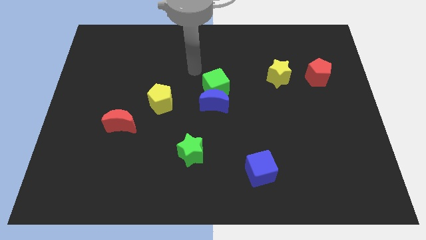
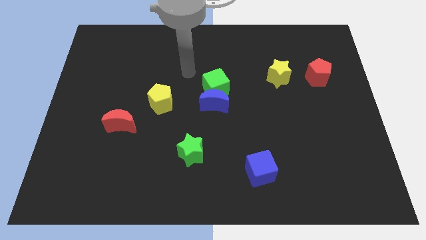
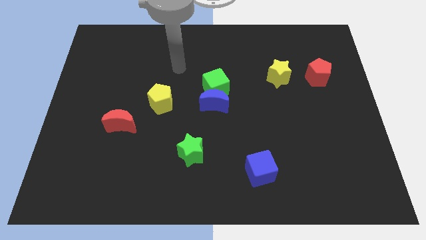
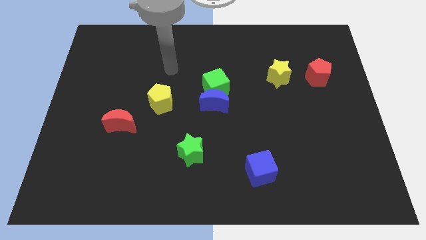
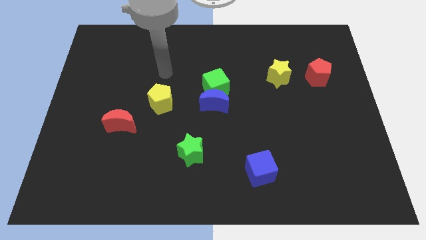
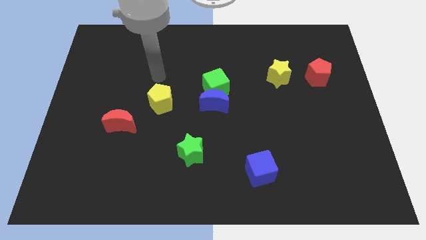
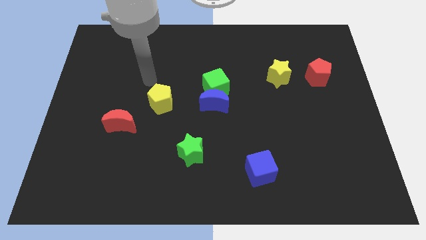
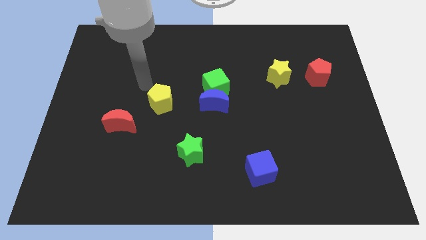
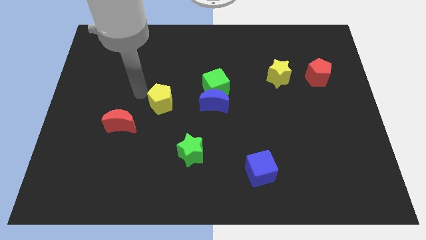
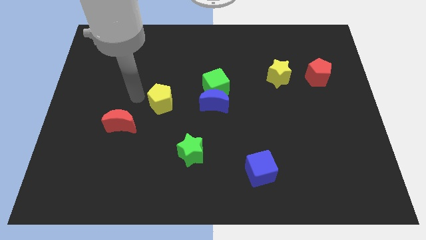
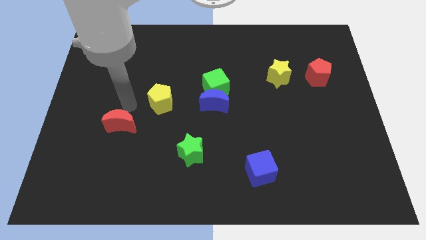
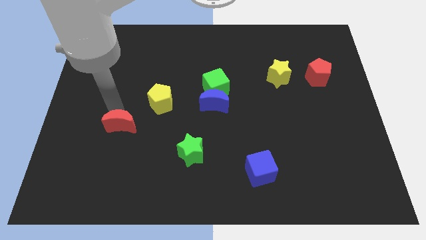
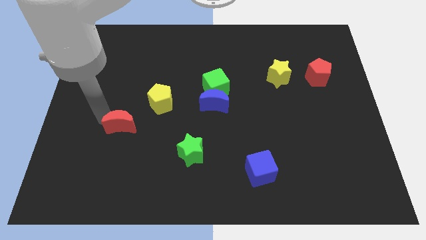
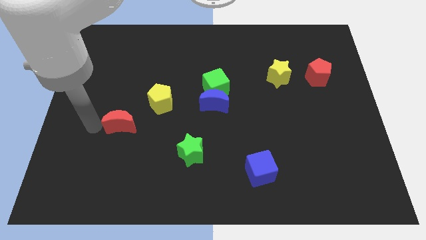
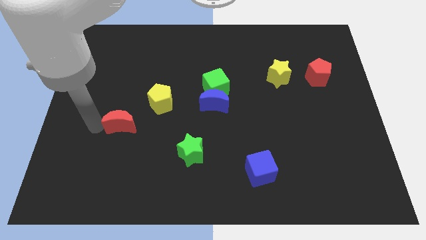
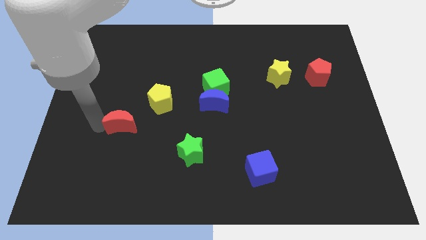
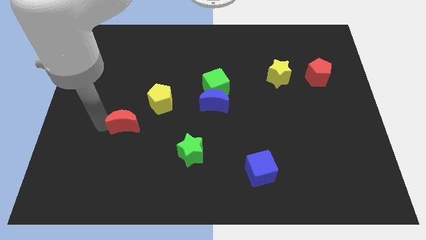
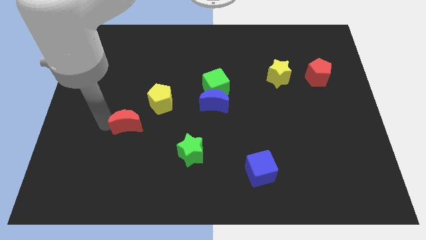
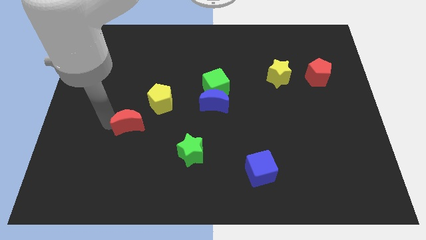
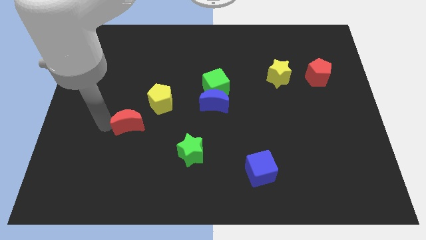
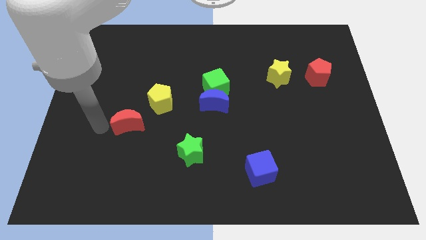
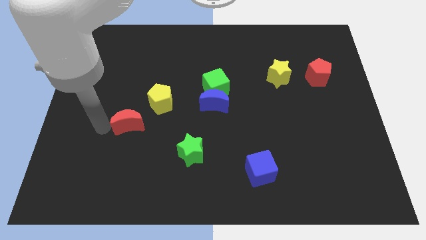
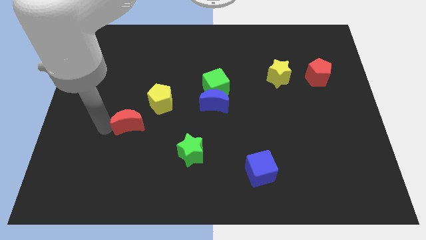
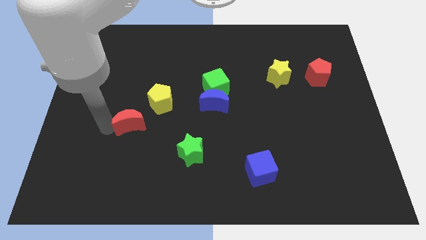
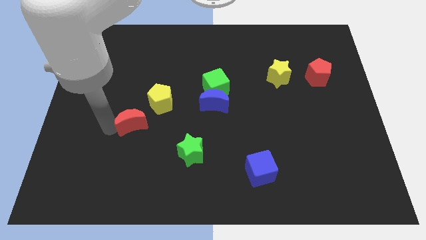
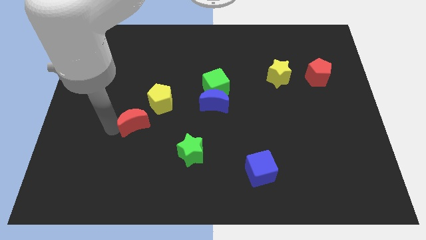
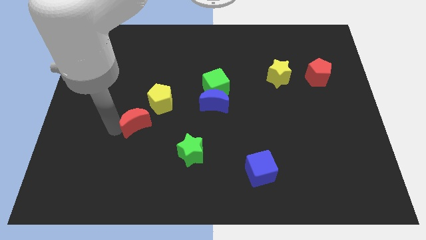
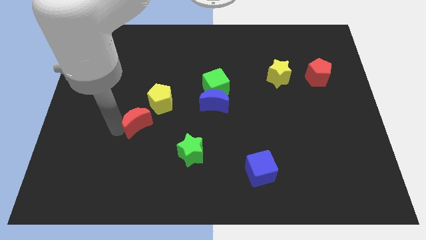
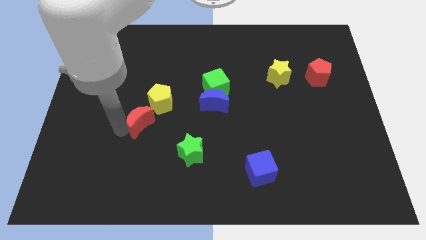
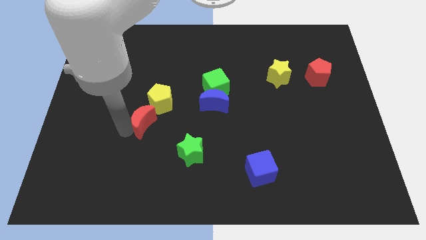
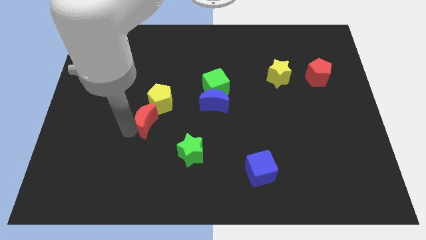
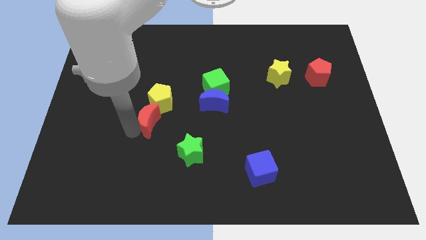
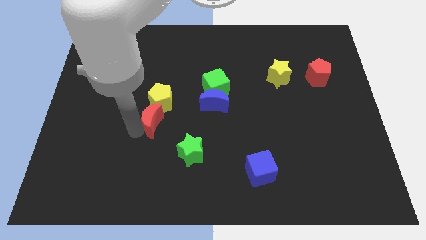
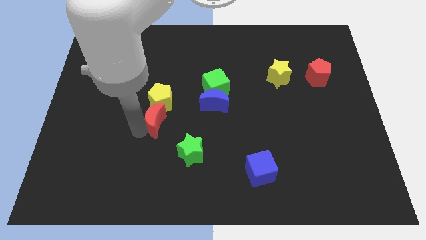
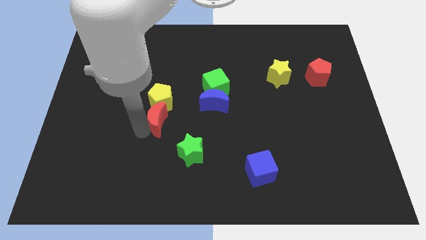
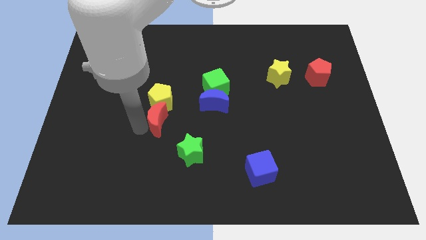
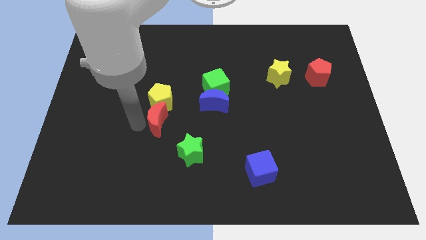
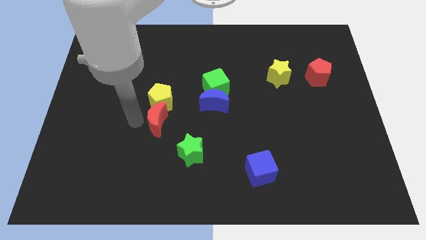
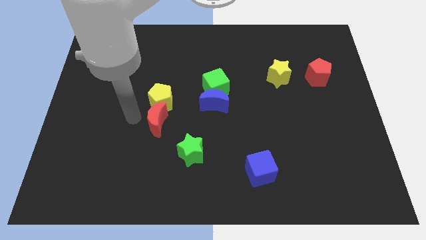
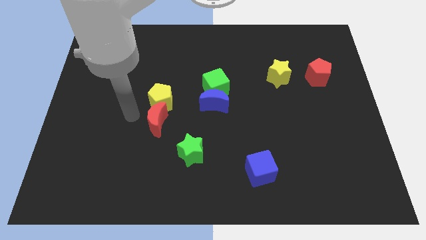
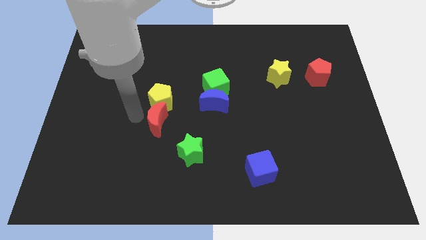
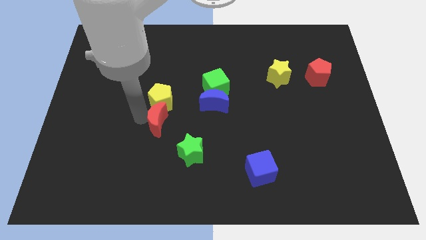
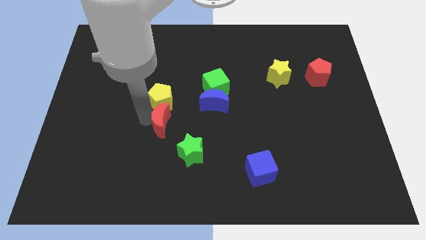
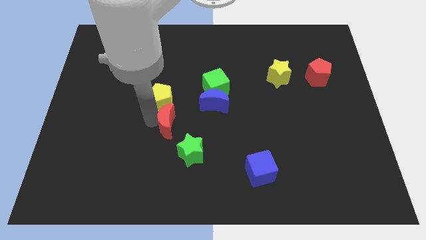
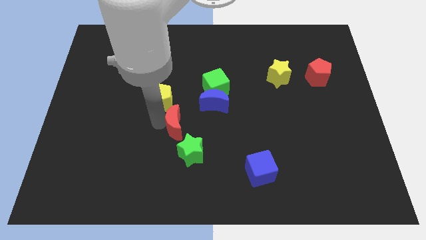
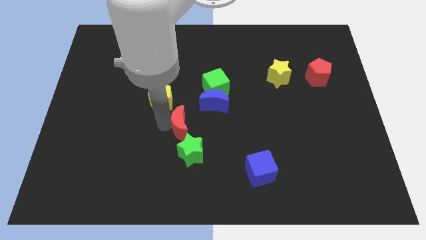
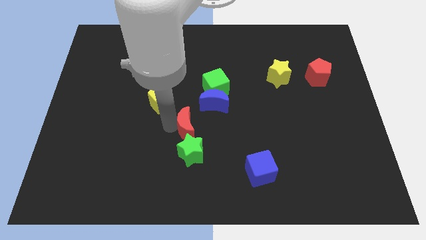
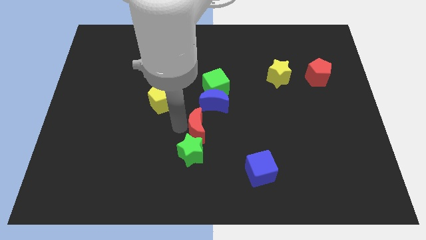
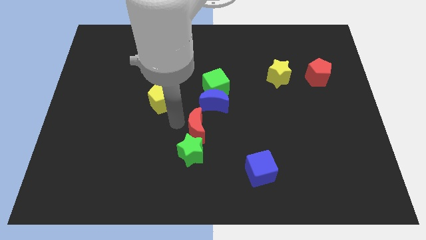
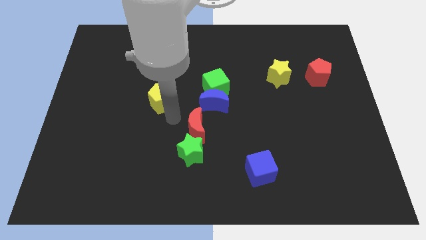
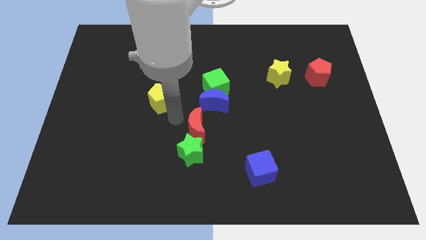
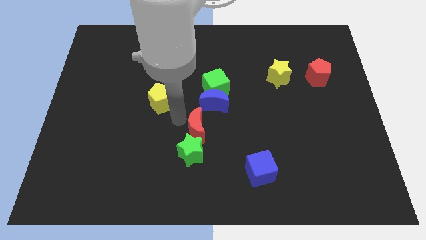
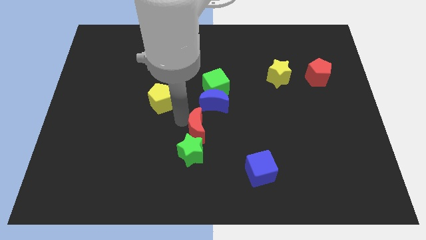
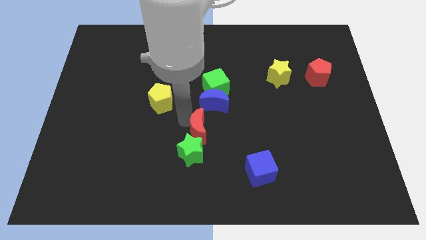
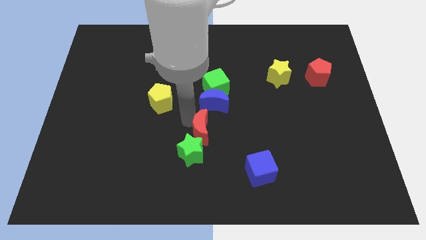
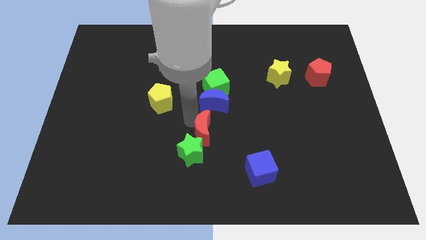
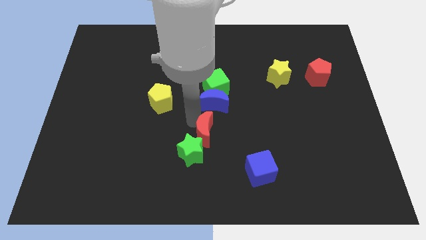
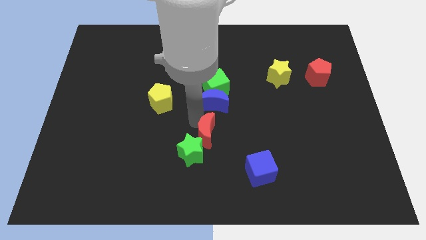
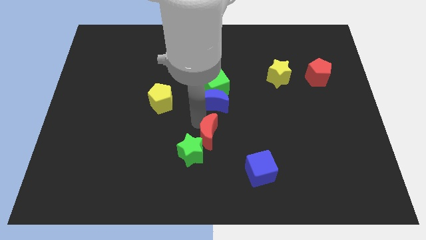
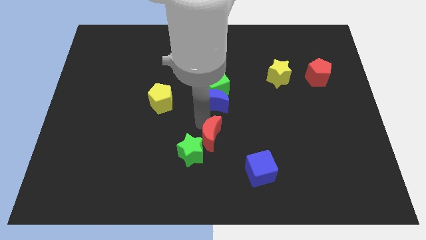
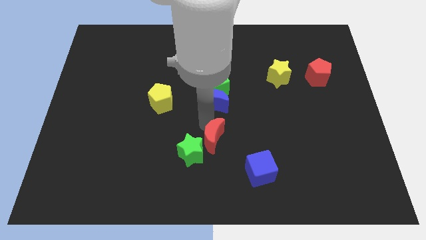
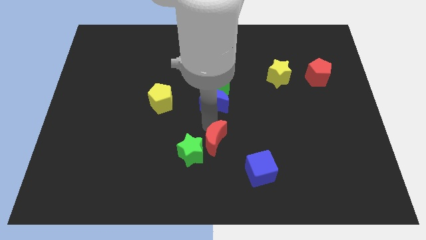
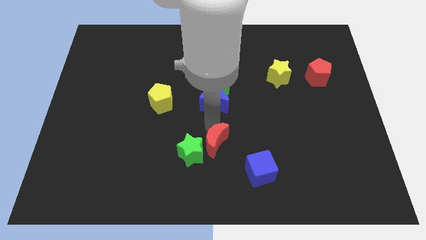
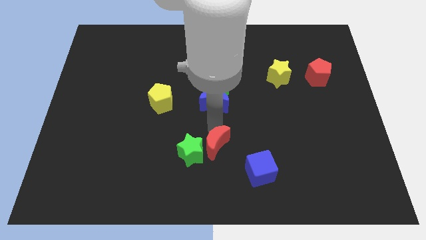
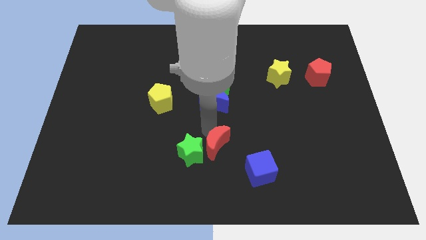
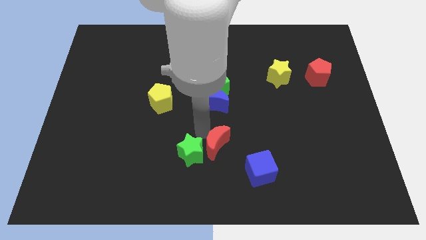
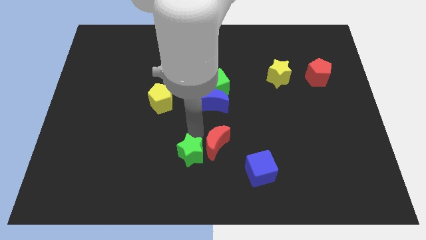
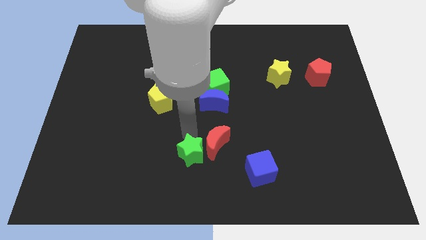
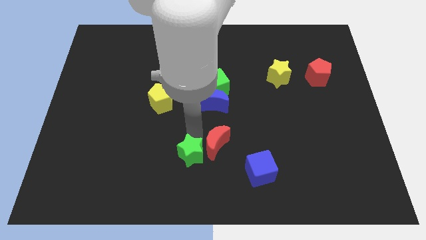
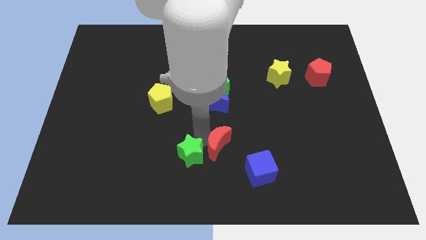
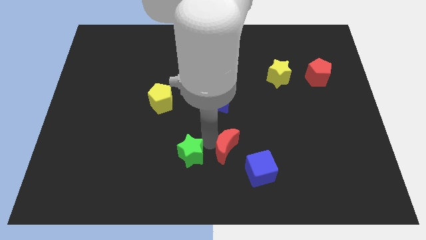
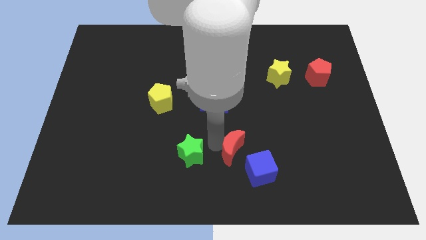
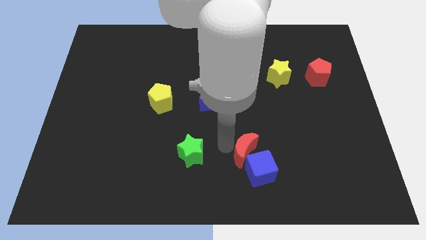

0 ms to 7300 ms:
slide the red moon towards the blue cube

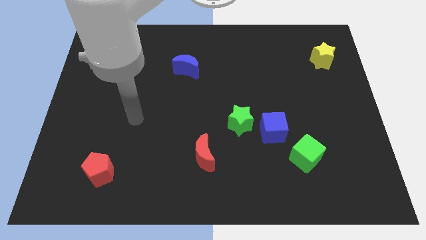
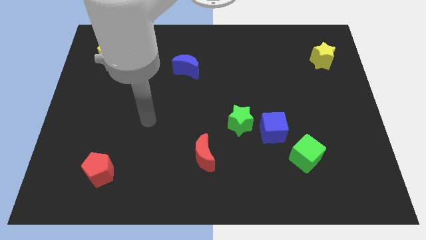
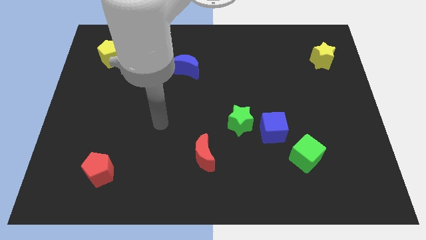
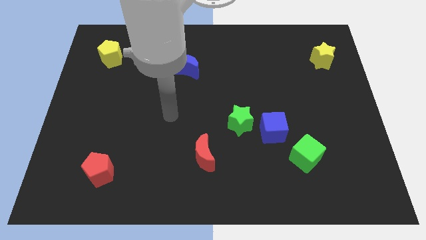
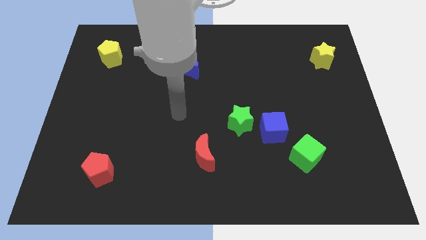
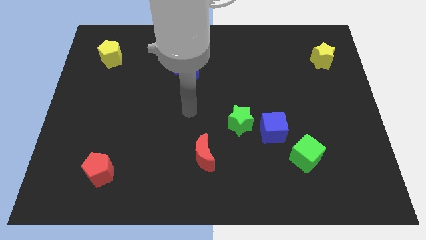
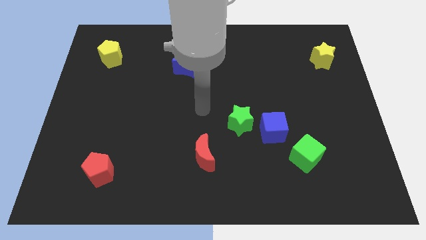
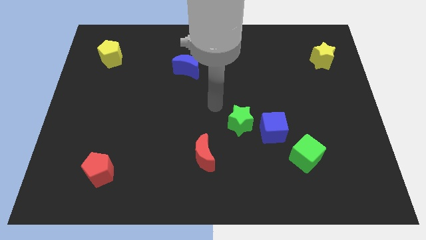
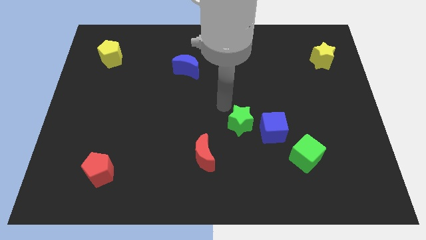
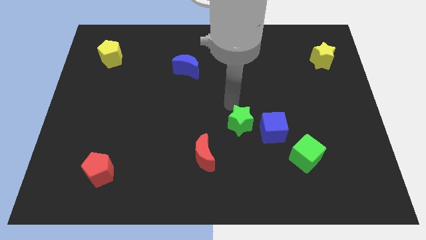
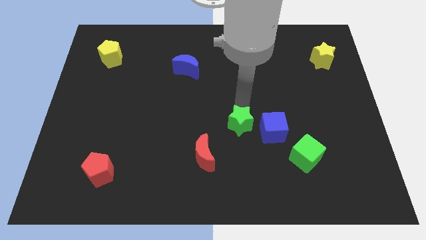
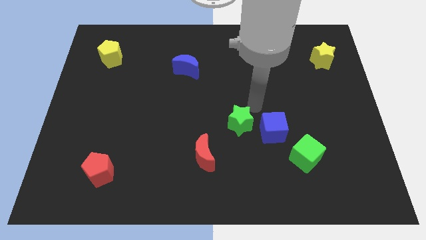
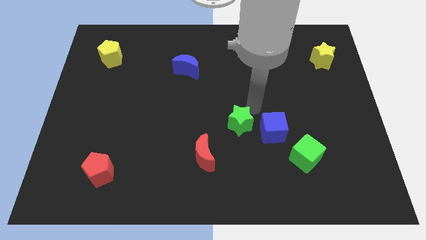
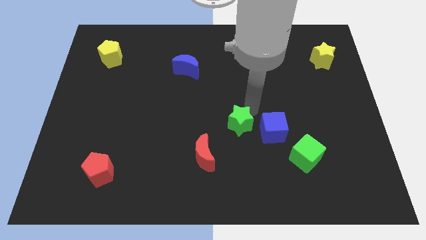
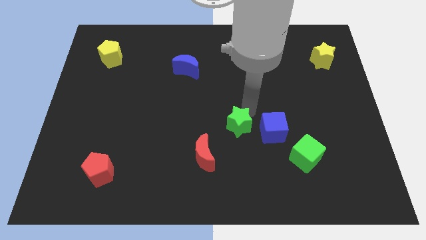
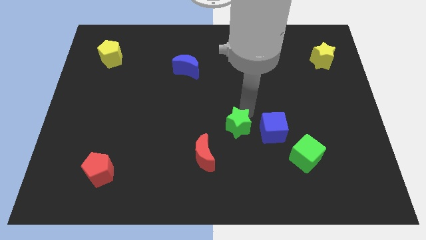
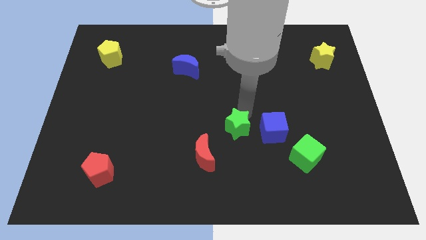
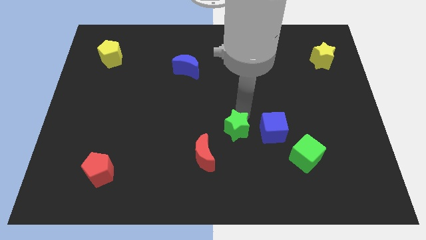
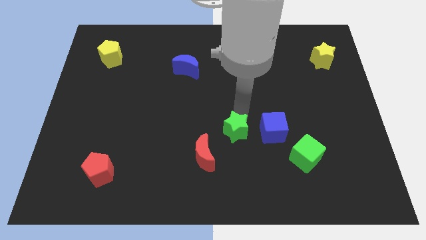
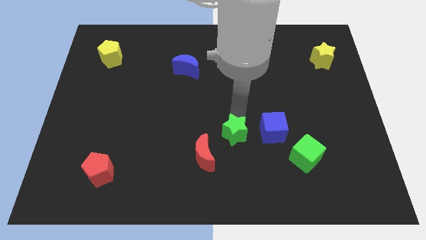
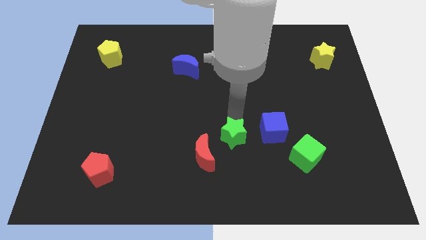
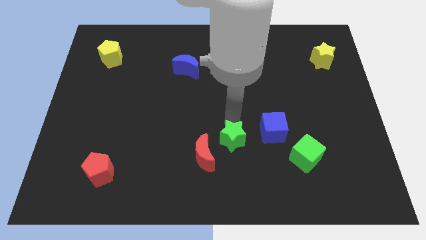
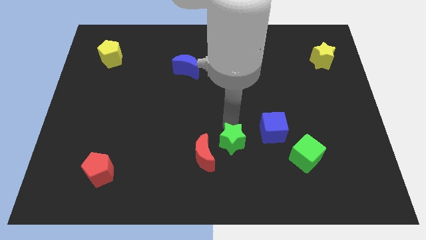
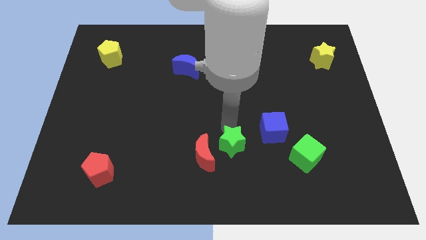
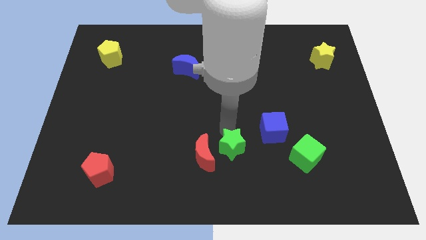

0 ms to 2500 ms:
move the green star towards the red moon
